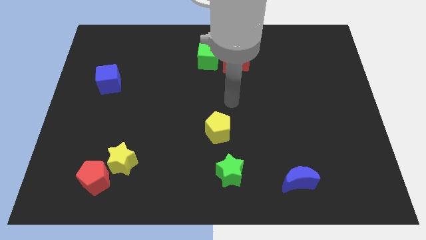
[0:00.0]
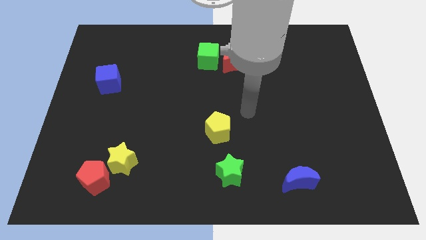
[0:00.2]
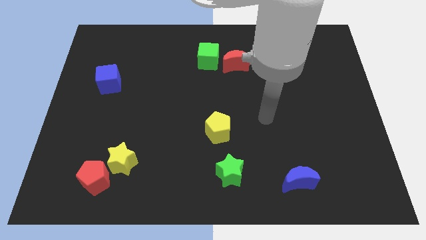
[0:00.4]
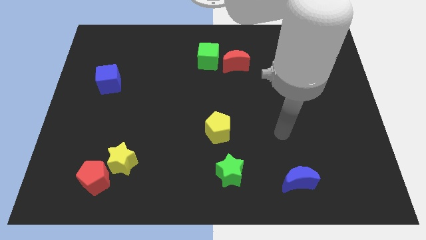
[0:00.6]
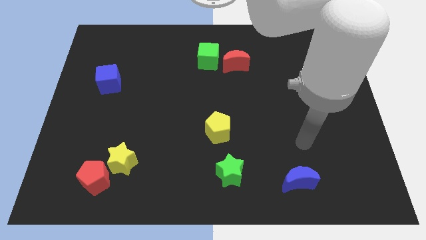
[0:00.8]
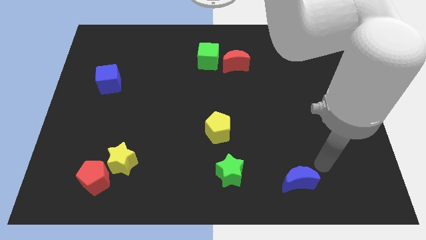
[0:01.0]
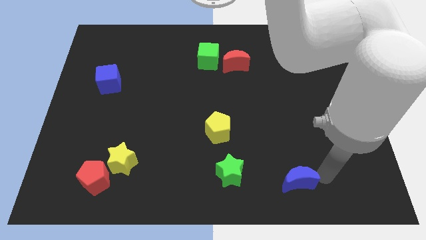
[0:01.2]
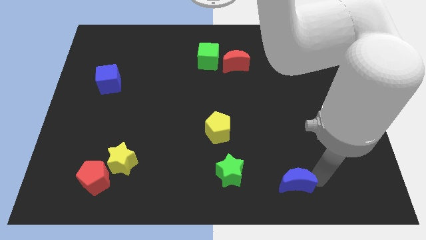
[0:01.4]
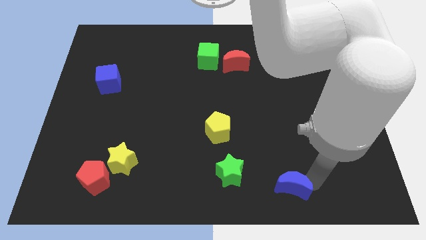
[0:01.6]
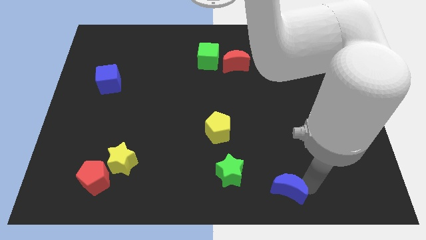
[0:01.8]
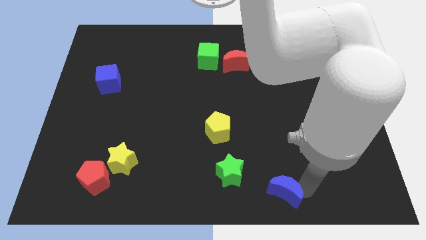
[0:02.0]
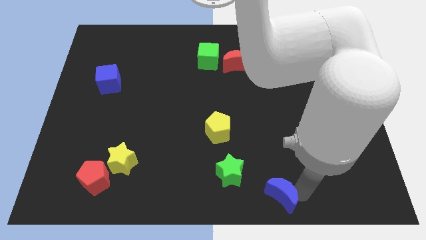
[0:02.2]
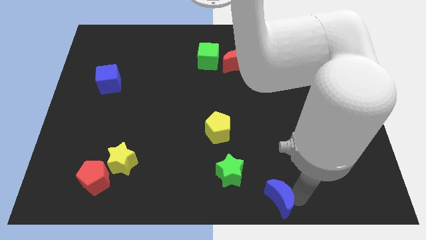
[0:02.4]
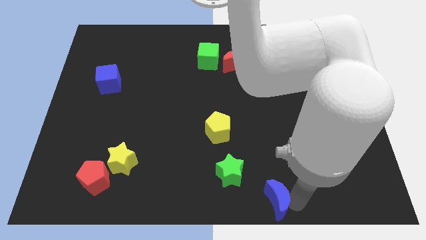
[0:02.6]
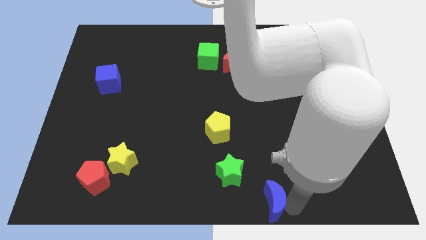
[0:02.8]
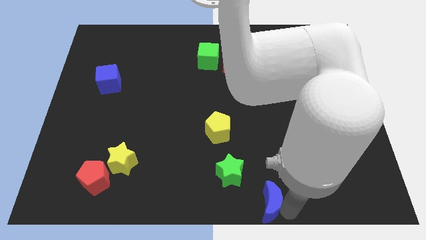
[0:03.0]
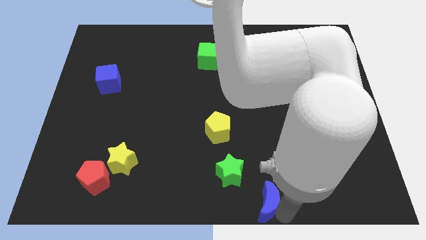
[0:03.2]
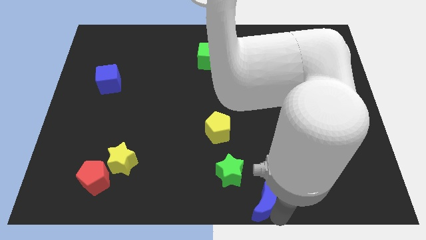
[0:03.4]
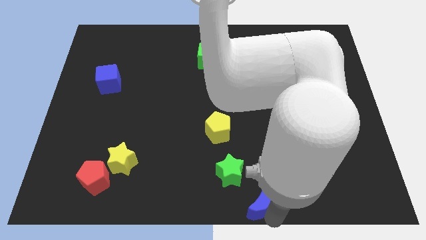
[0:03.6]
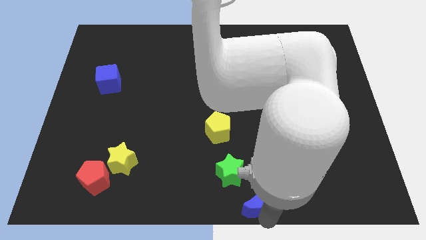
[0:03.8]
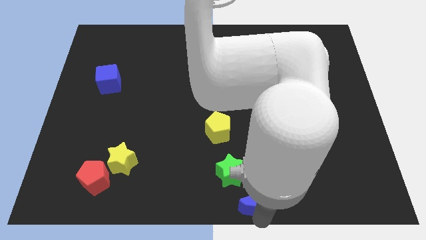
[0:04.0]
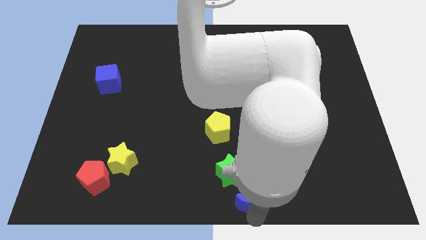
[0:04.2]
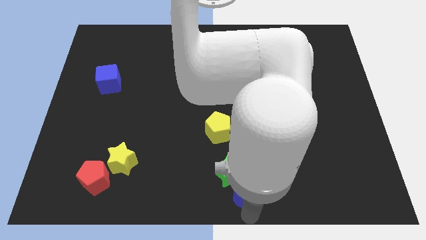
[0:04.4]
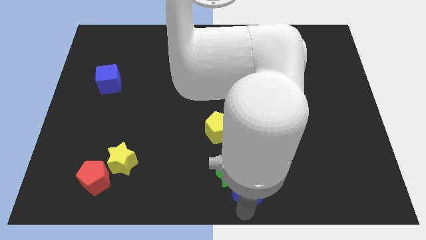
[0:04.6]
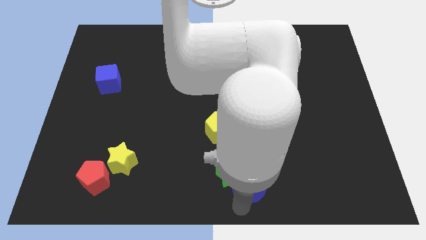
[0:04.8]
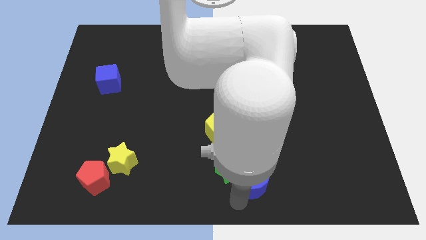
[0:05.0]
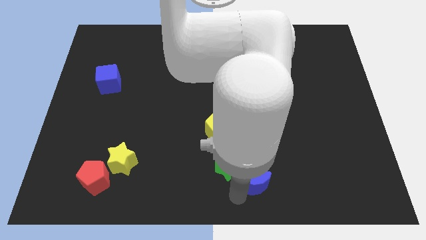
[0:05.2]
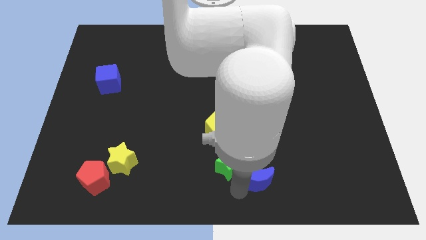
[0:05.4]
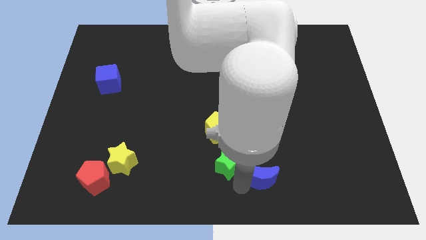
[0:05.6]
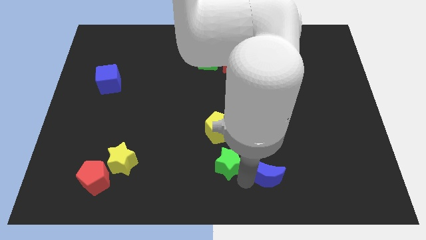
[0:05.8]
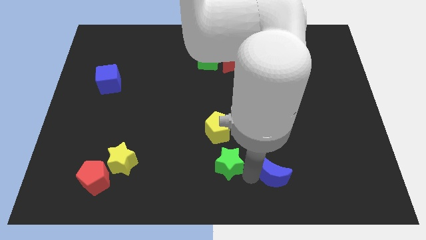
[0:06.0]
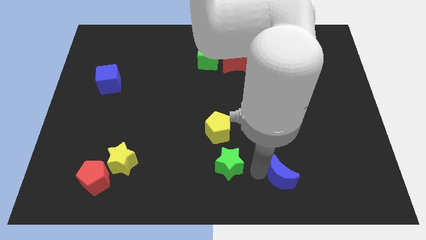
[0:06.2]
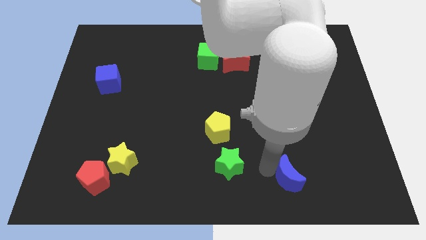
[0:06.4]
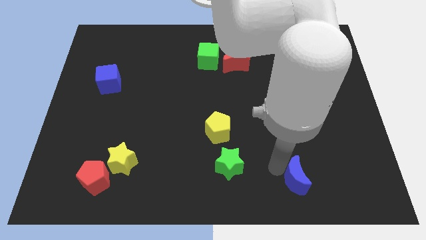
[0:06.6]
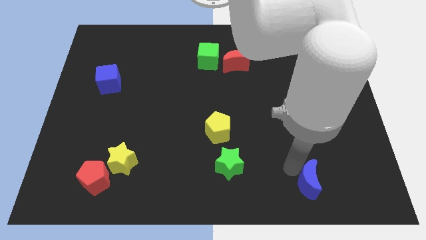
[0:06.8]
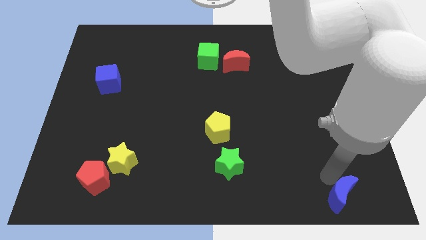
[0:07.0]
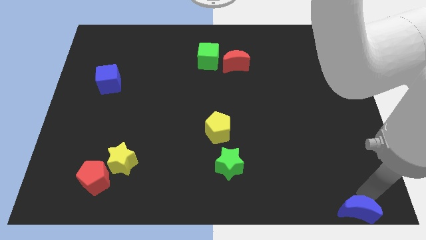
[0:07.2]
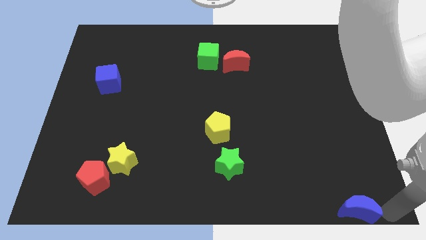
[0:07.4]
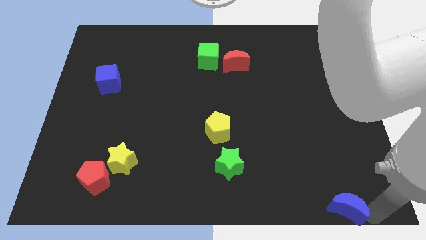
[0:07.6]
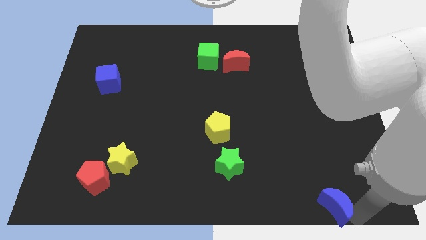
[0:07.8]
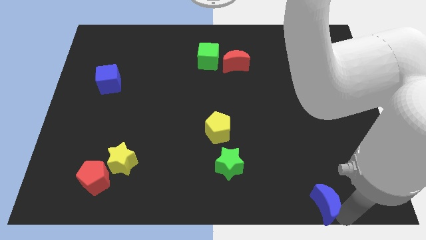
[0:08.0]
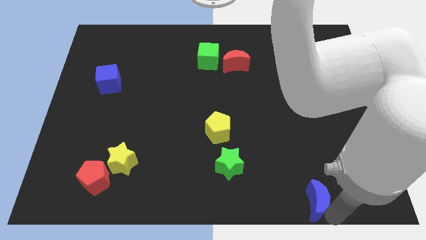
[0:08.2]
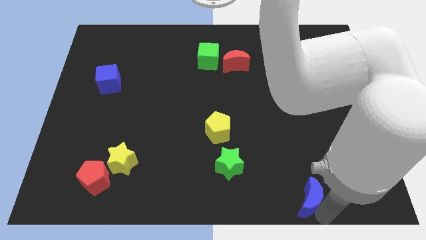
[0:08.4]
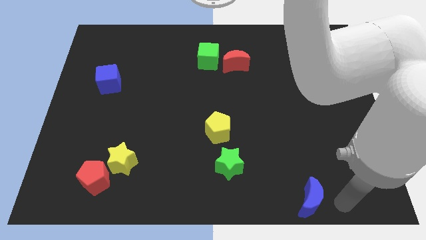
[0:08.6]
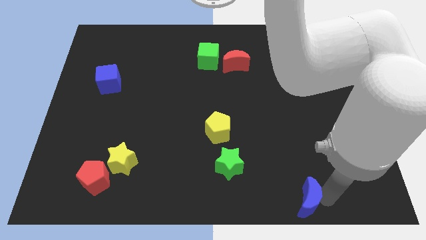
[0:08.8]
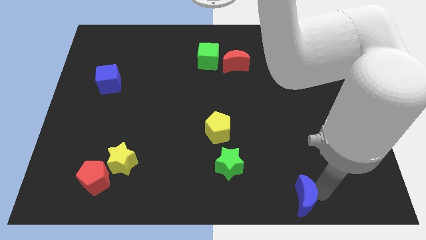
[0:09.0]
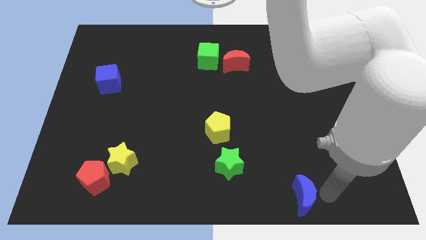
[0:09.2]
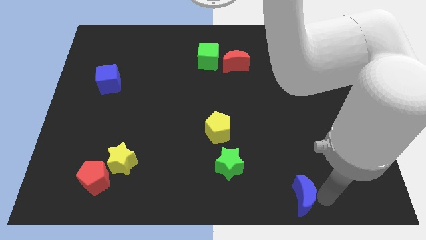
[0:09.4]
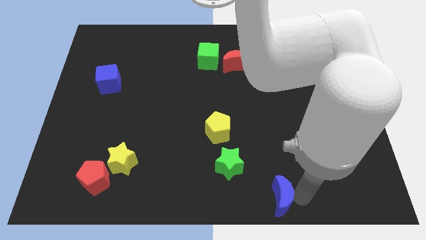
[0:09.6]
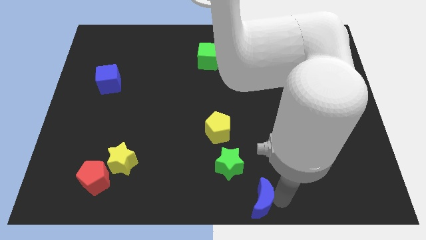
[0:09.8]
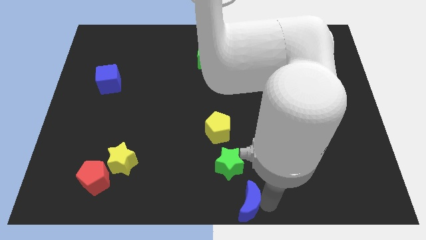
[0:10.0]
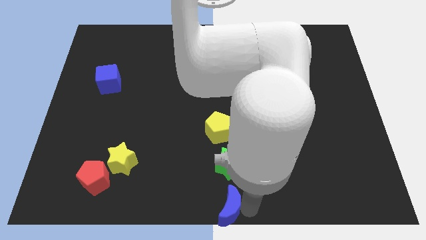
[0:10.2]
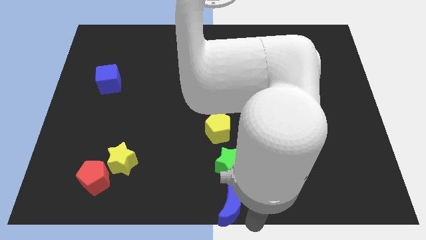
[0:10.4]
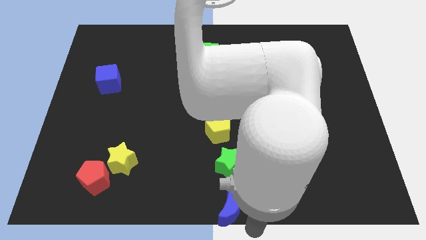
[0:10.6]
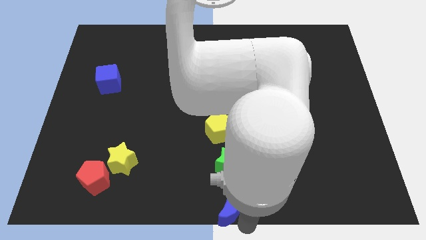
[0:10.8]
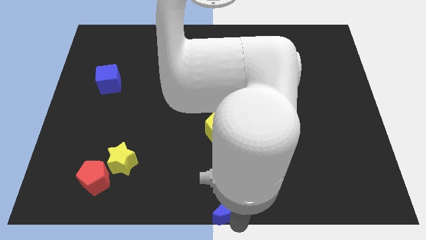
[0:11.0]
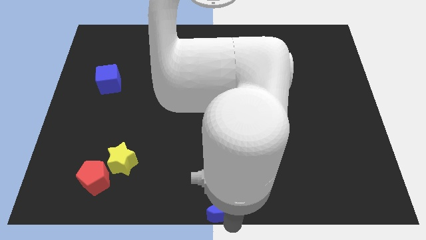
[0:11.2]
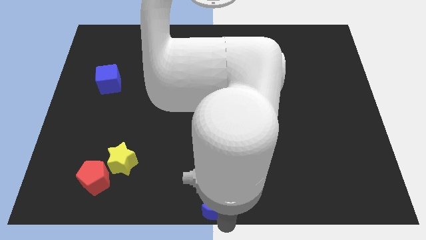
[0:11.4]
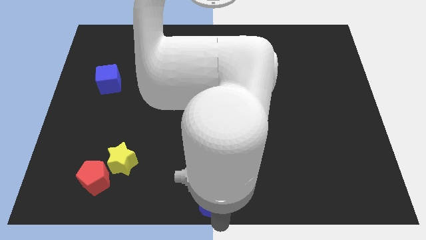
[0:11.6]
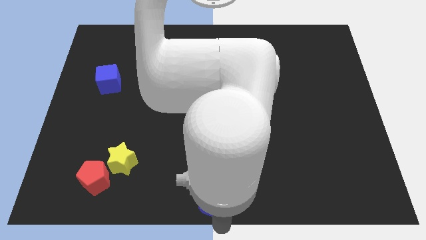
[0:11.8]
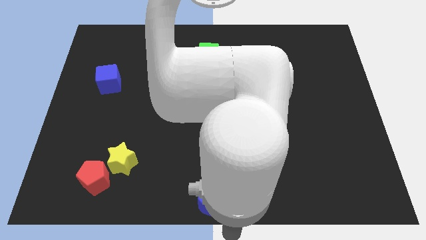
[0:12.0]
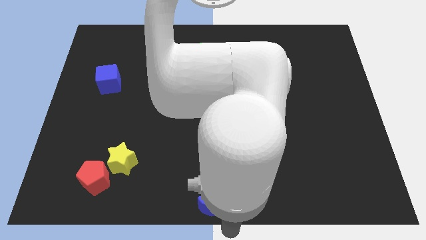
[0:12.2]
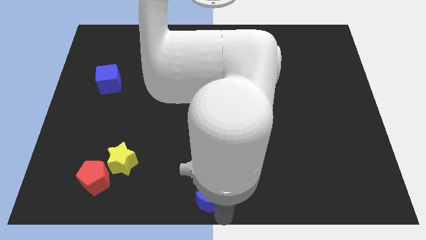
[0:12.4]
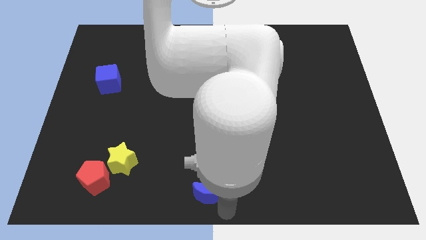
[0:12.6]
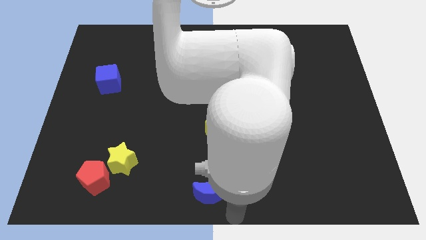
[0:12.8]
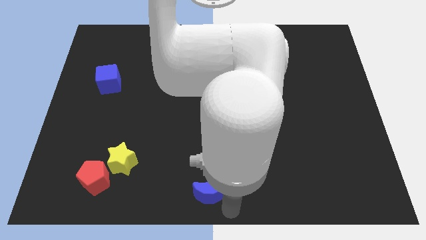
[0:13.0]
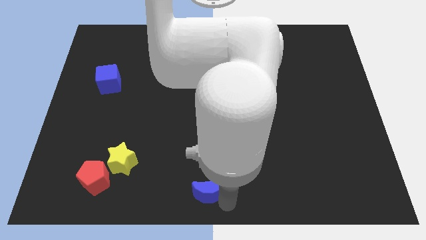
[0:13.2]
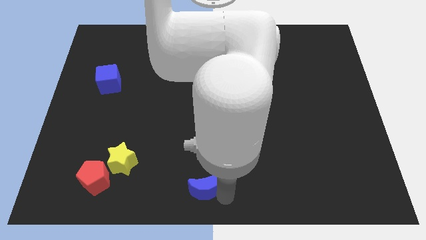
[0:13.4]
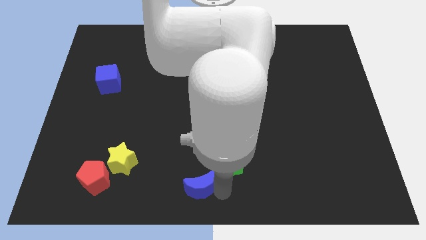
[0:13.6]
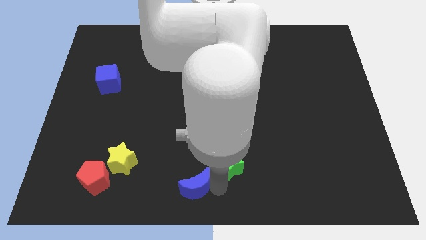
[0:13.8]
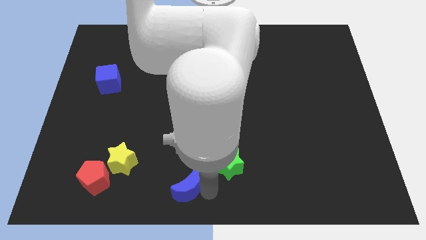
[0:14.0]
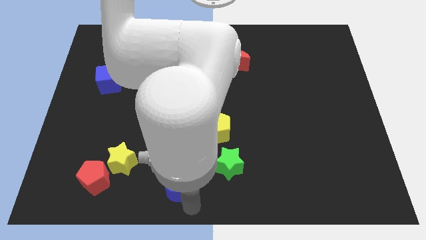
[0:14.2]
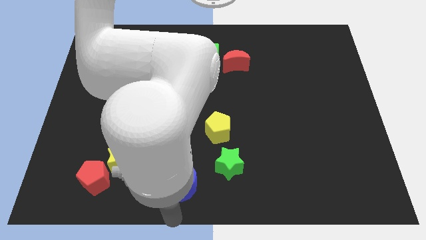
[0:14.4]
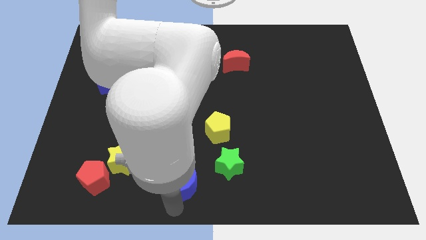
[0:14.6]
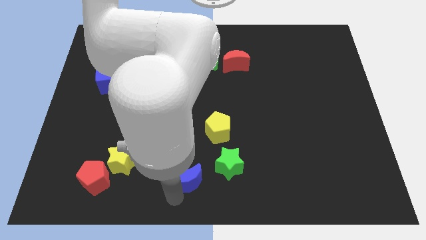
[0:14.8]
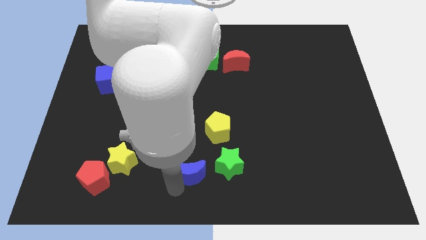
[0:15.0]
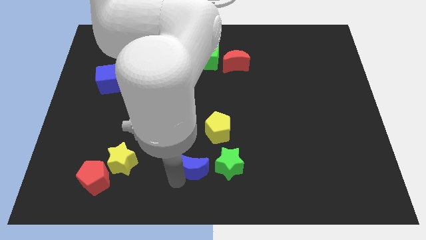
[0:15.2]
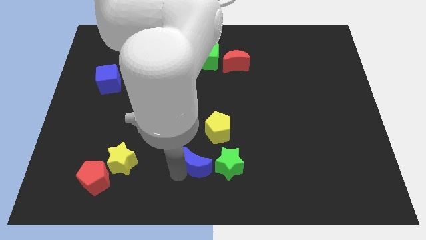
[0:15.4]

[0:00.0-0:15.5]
slide the blue moon to the top left of the green star
